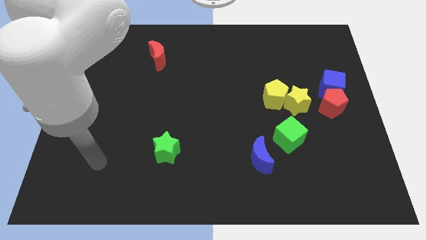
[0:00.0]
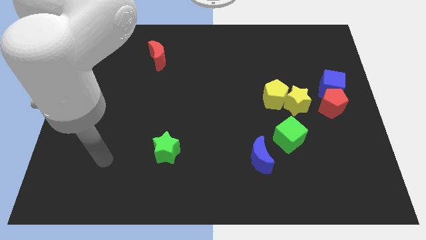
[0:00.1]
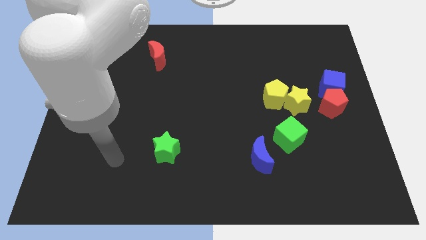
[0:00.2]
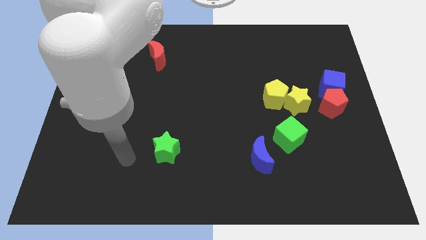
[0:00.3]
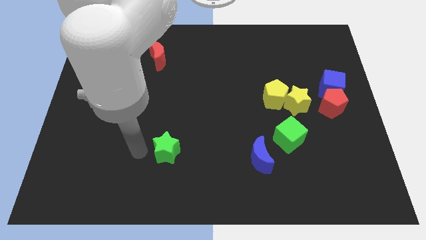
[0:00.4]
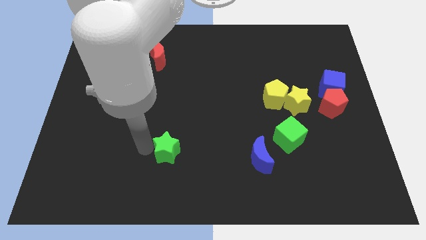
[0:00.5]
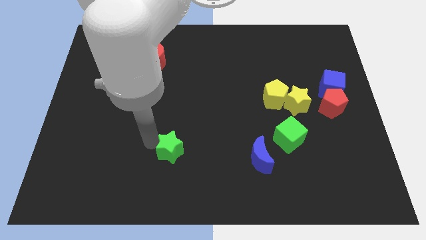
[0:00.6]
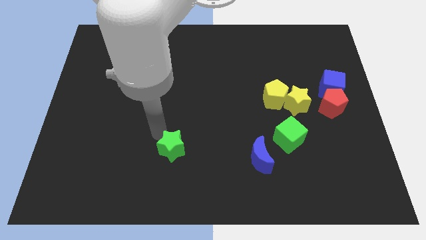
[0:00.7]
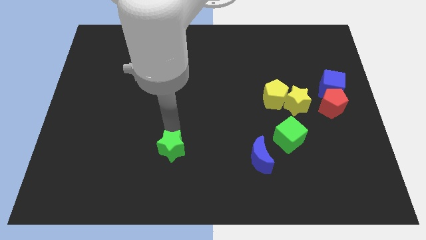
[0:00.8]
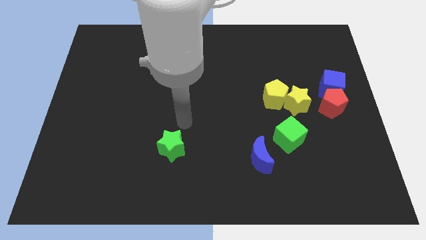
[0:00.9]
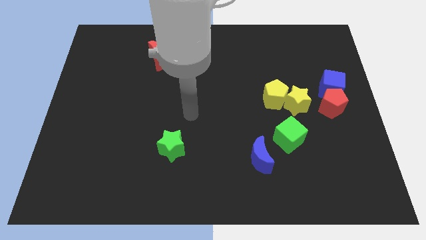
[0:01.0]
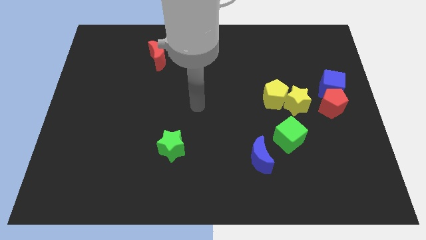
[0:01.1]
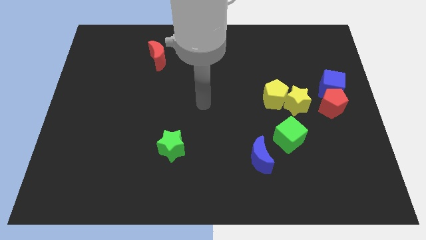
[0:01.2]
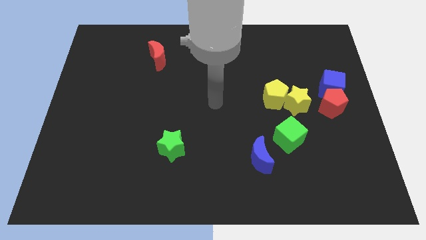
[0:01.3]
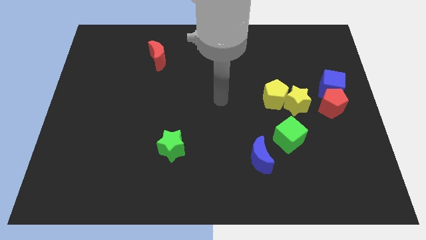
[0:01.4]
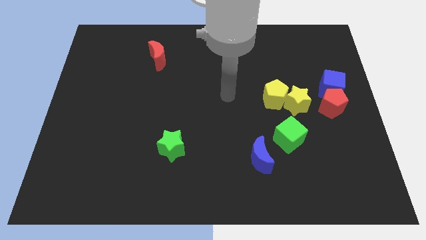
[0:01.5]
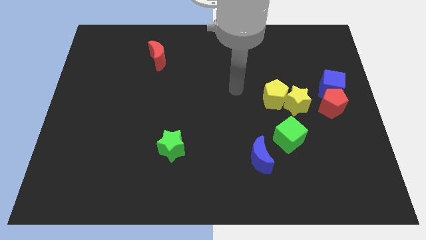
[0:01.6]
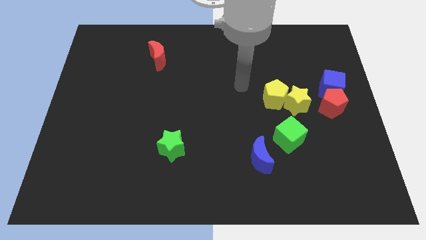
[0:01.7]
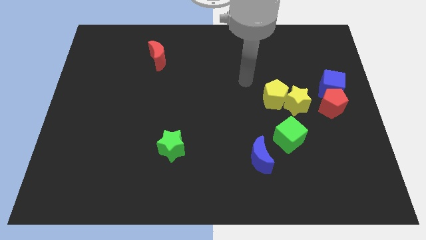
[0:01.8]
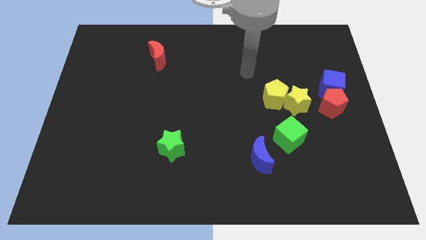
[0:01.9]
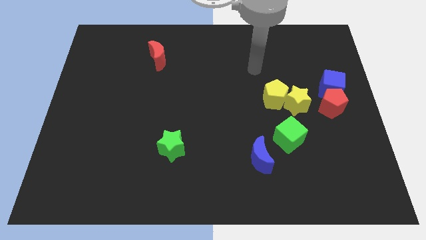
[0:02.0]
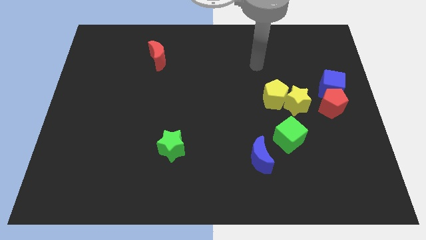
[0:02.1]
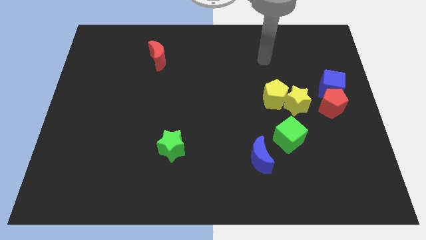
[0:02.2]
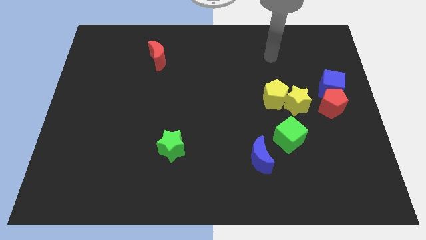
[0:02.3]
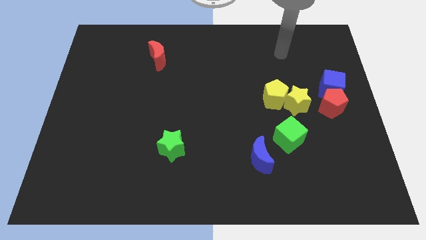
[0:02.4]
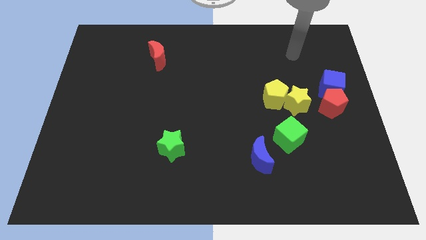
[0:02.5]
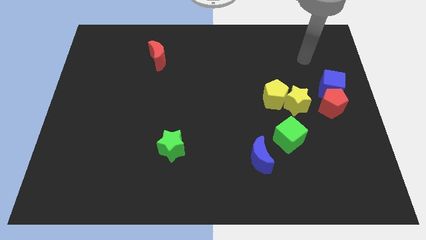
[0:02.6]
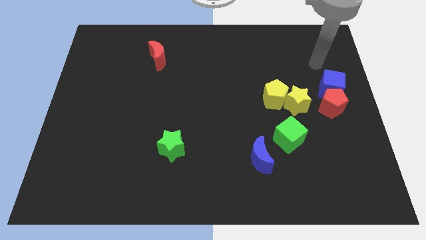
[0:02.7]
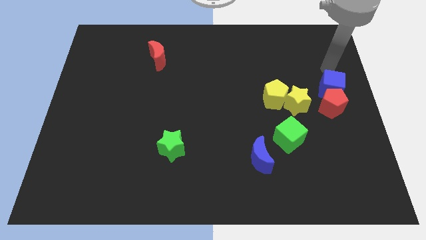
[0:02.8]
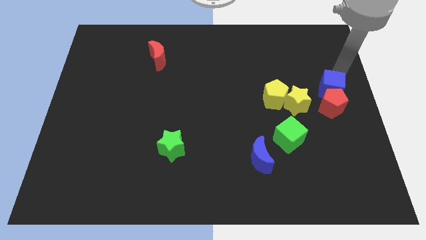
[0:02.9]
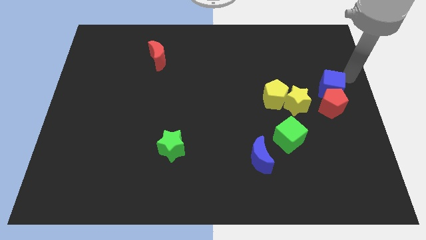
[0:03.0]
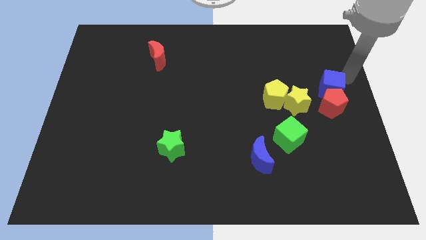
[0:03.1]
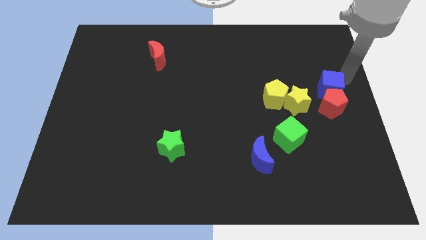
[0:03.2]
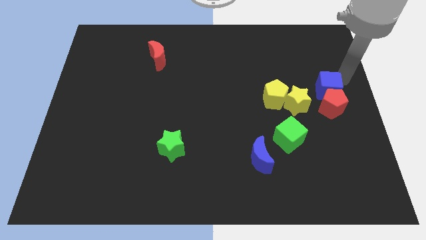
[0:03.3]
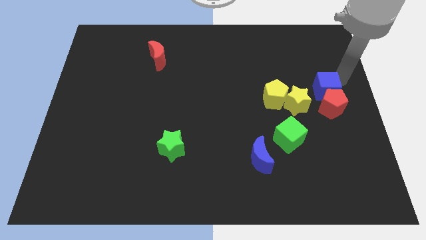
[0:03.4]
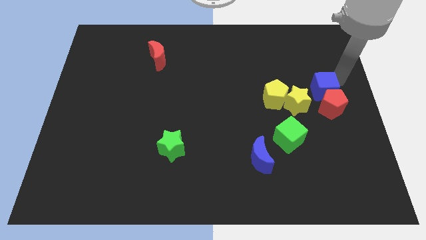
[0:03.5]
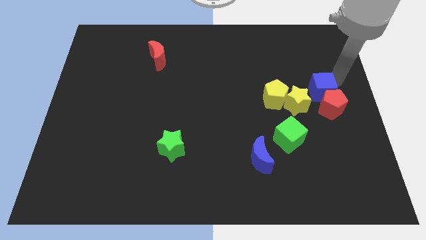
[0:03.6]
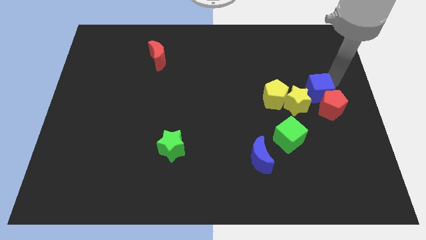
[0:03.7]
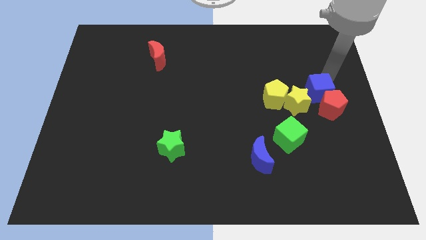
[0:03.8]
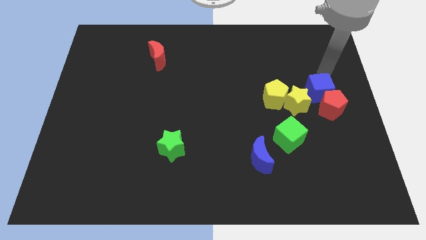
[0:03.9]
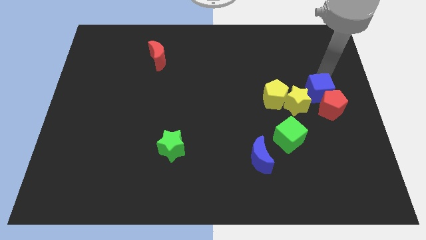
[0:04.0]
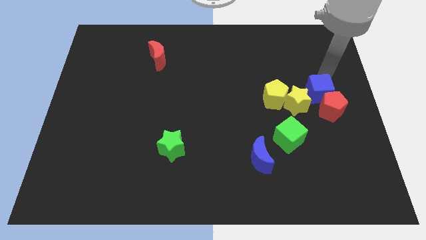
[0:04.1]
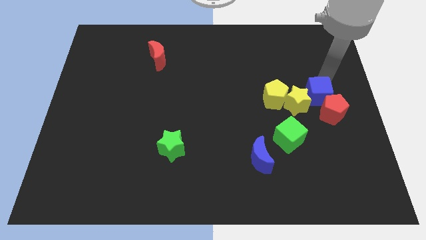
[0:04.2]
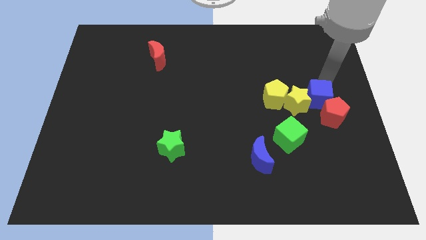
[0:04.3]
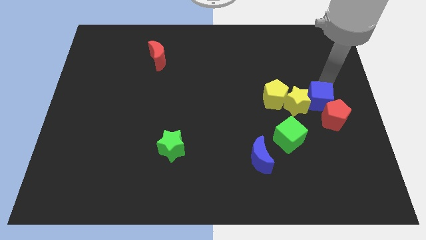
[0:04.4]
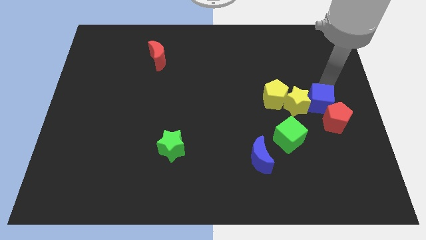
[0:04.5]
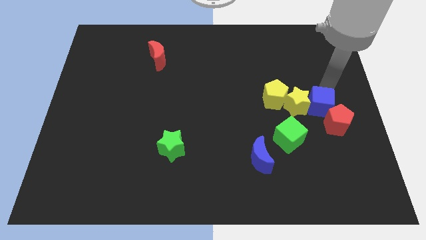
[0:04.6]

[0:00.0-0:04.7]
push the blue cube diagonally up and to the right of the green cube

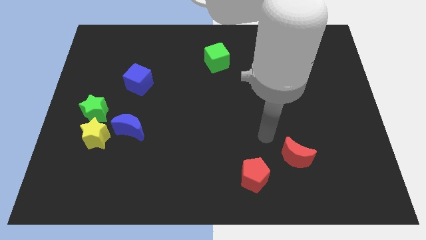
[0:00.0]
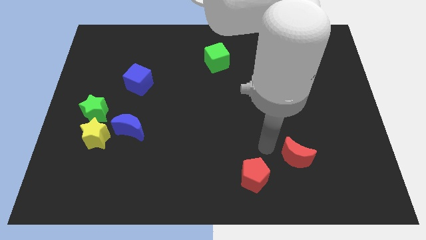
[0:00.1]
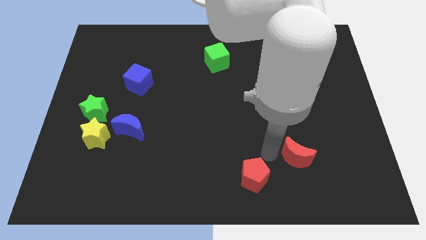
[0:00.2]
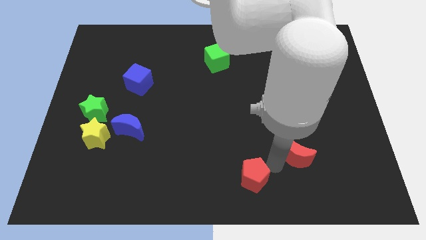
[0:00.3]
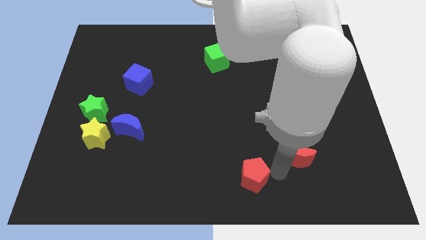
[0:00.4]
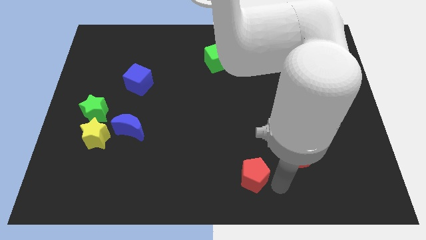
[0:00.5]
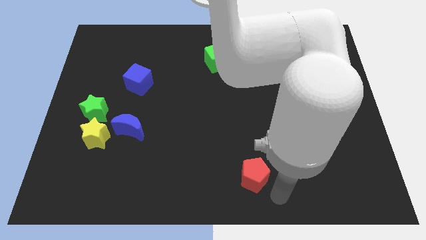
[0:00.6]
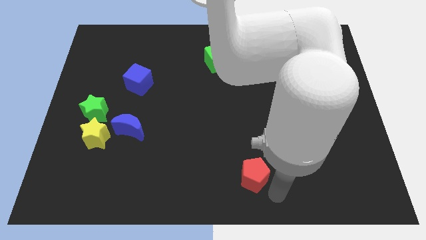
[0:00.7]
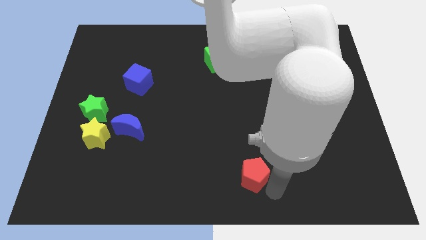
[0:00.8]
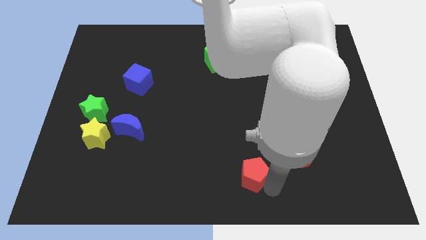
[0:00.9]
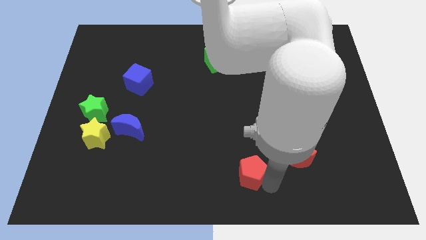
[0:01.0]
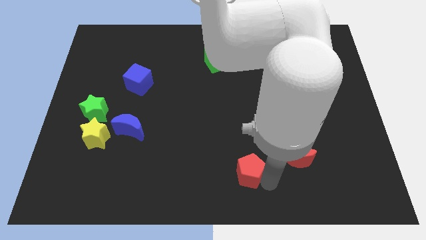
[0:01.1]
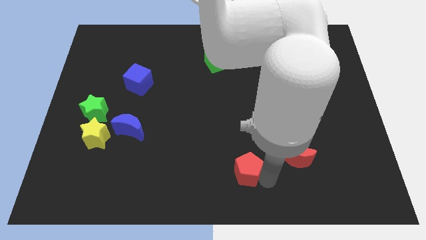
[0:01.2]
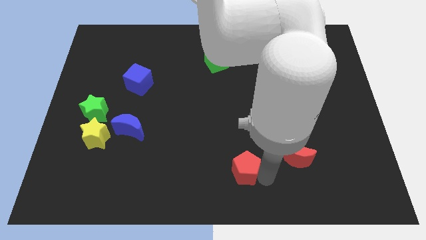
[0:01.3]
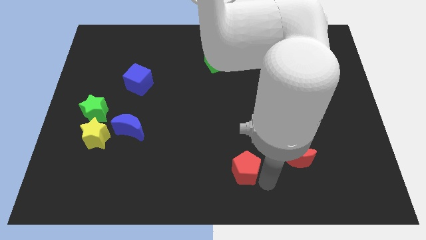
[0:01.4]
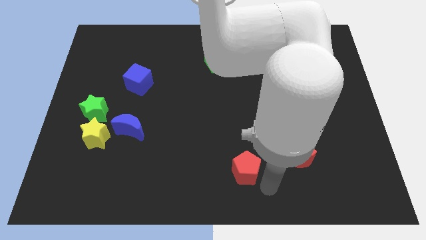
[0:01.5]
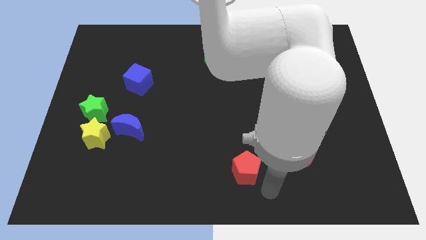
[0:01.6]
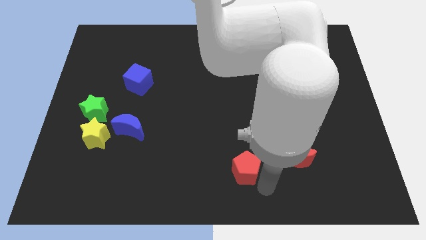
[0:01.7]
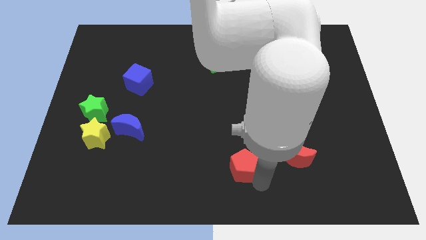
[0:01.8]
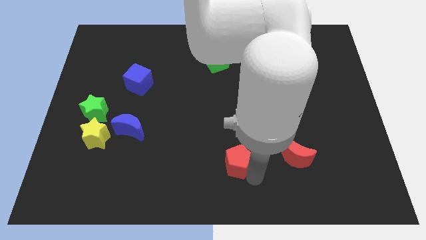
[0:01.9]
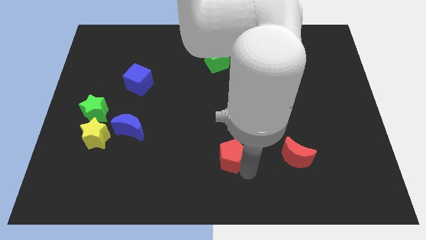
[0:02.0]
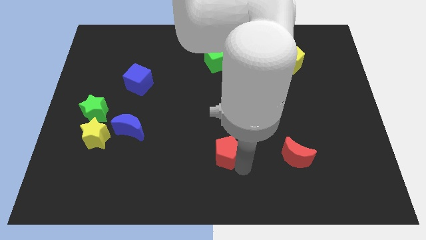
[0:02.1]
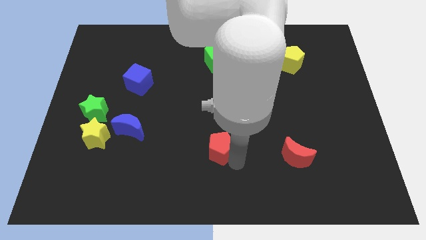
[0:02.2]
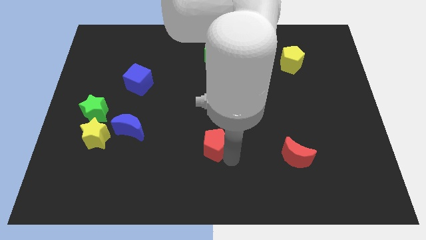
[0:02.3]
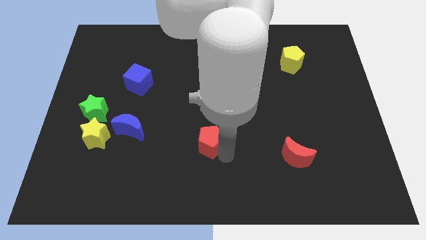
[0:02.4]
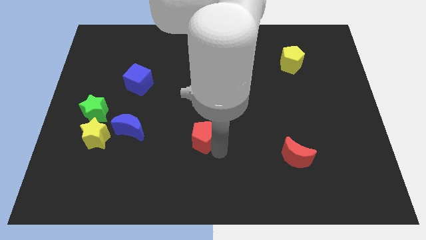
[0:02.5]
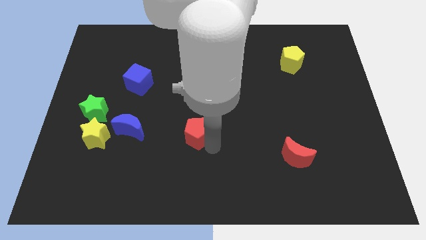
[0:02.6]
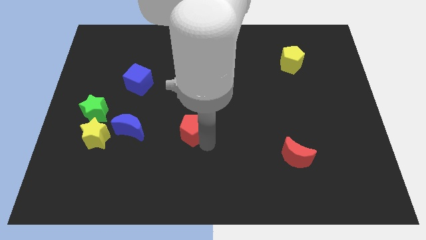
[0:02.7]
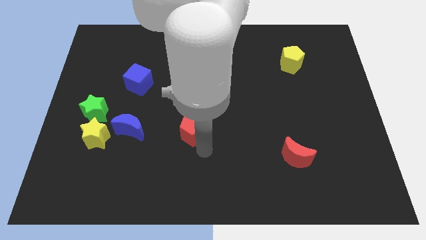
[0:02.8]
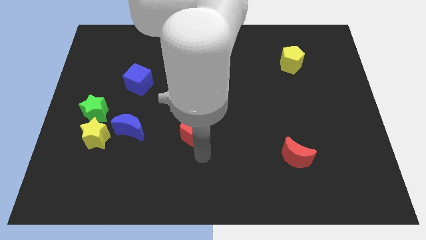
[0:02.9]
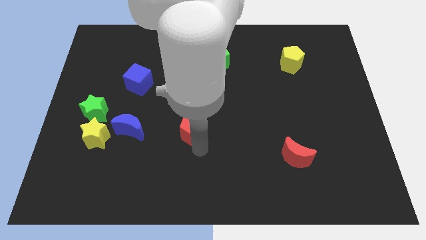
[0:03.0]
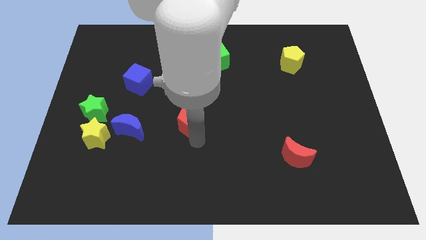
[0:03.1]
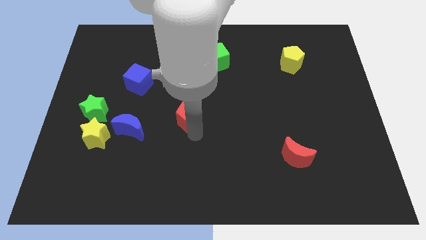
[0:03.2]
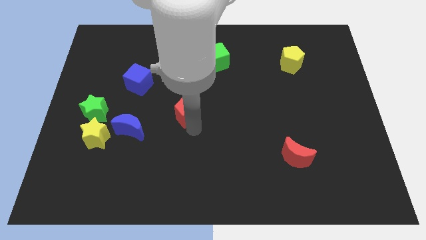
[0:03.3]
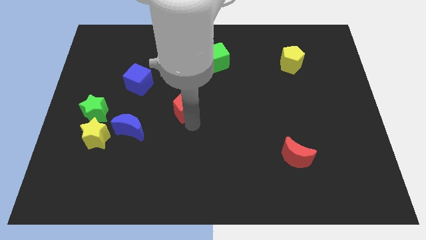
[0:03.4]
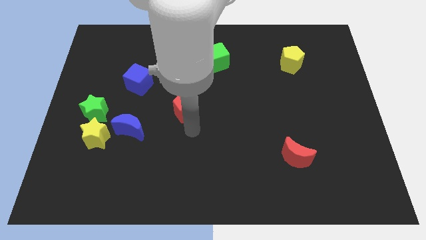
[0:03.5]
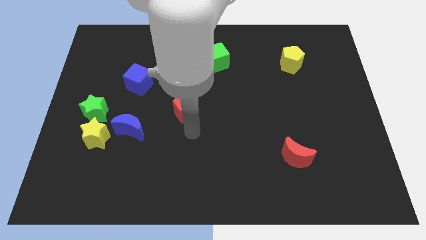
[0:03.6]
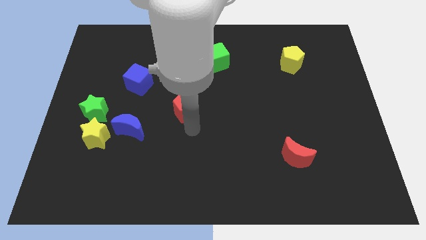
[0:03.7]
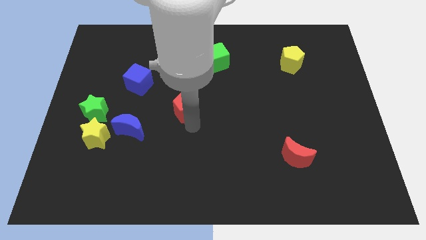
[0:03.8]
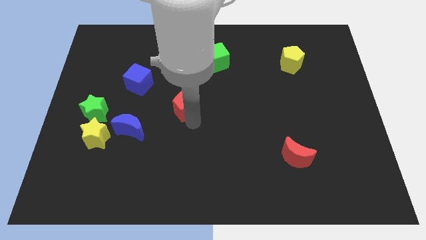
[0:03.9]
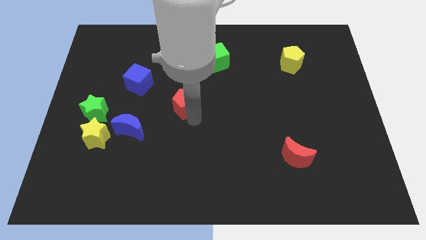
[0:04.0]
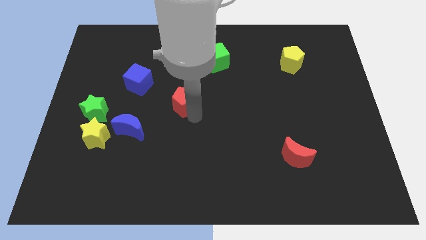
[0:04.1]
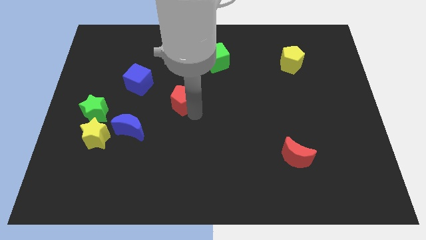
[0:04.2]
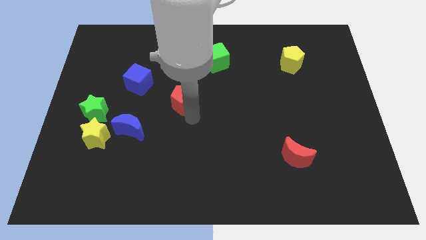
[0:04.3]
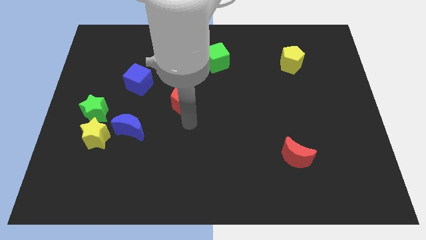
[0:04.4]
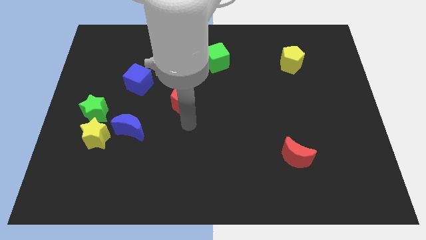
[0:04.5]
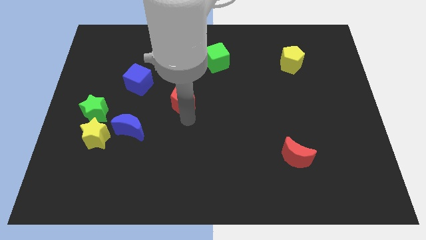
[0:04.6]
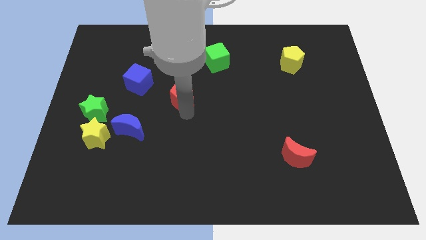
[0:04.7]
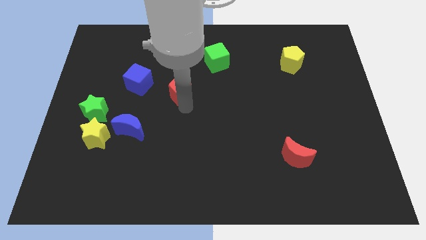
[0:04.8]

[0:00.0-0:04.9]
slide the red pentagon just right of the blue cube
